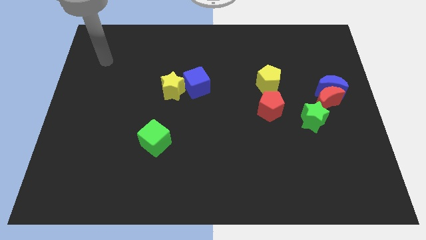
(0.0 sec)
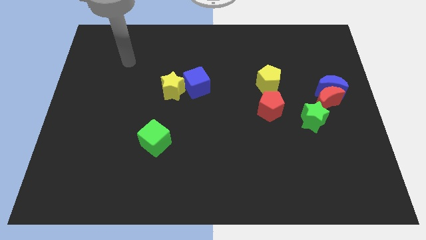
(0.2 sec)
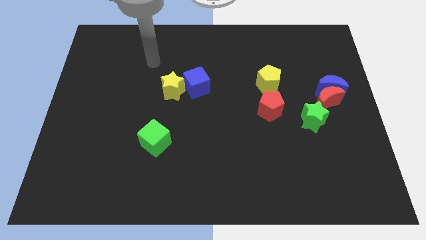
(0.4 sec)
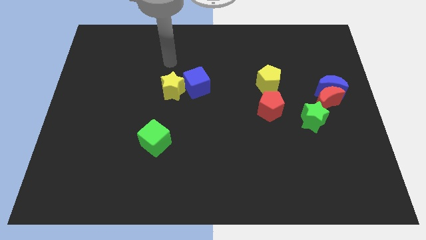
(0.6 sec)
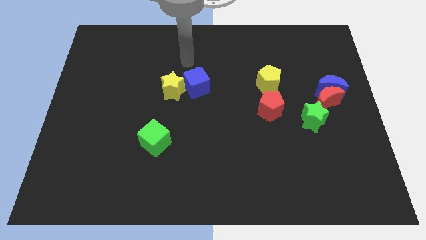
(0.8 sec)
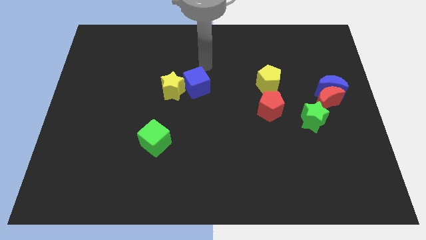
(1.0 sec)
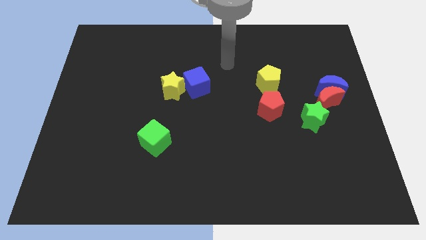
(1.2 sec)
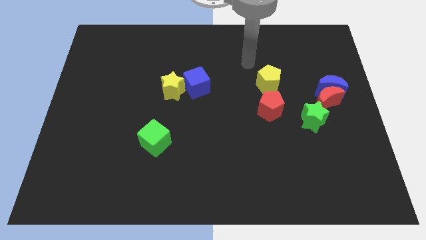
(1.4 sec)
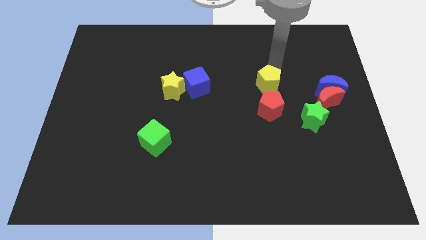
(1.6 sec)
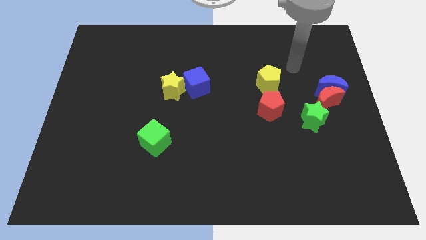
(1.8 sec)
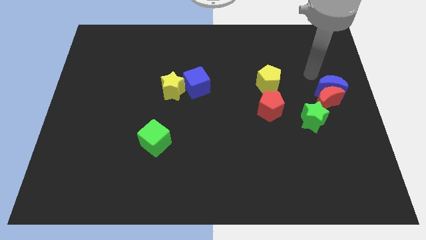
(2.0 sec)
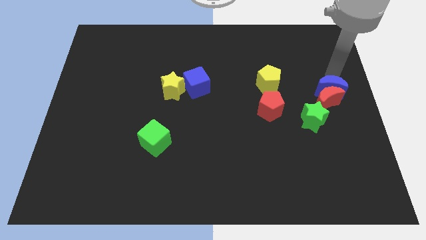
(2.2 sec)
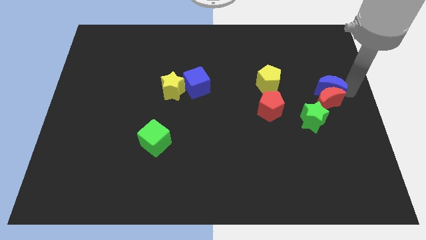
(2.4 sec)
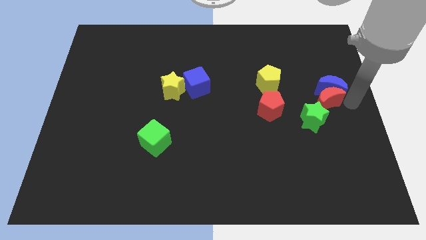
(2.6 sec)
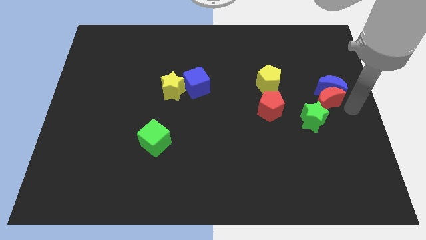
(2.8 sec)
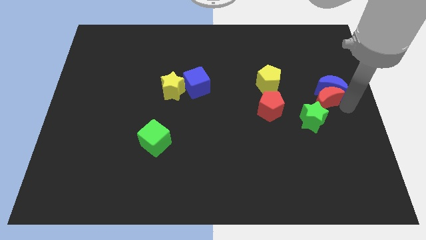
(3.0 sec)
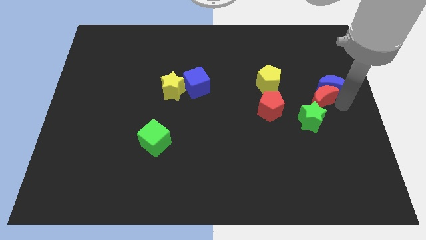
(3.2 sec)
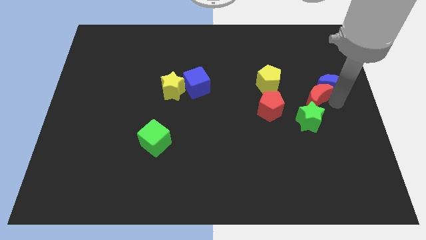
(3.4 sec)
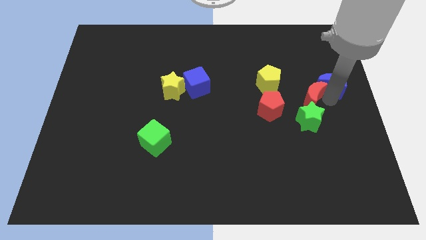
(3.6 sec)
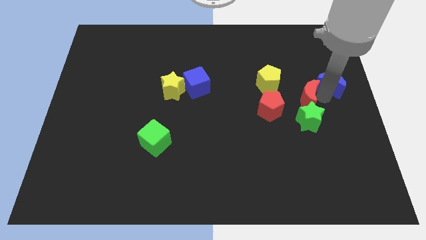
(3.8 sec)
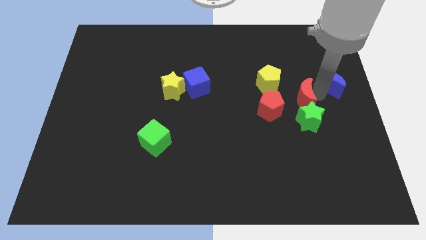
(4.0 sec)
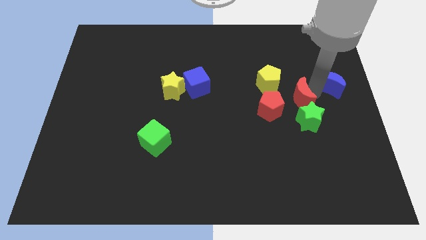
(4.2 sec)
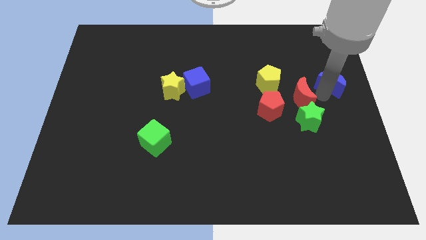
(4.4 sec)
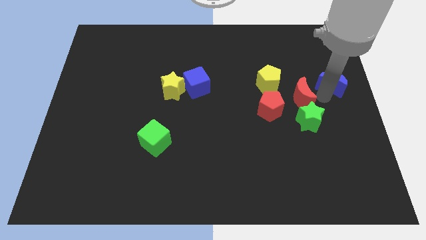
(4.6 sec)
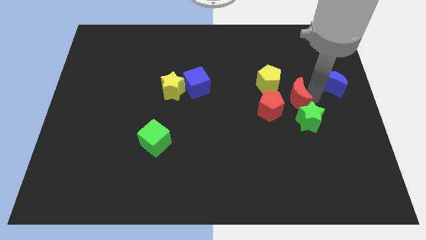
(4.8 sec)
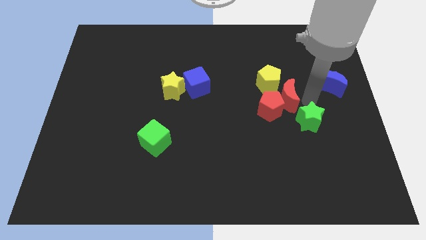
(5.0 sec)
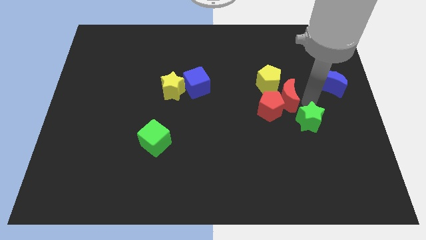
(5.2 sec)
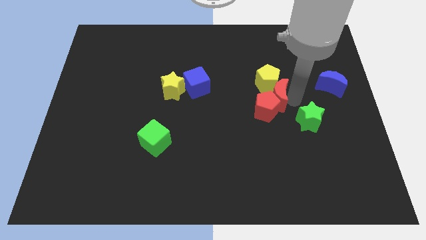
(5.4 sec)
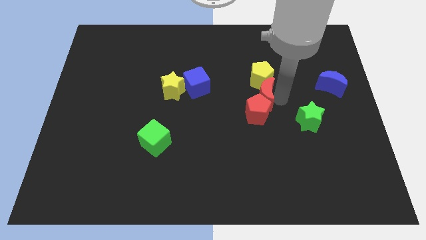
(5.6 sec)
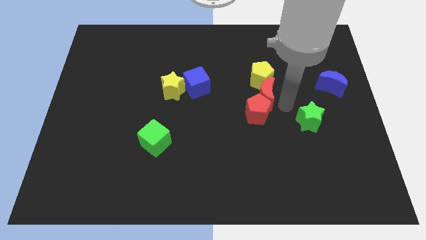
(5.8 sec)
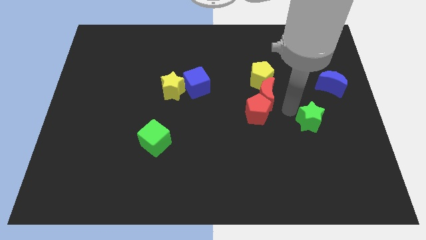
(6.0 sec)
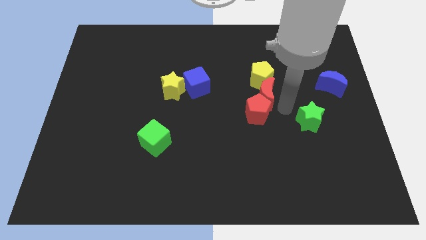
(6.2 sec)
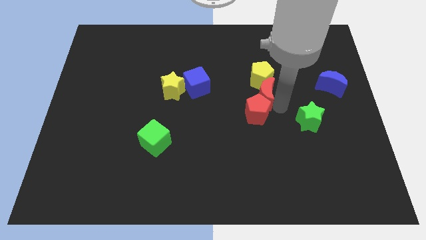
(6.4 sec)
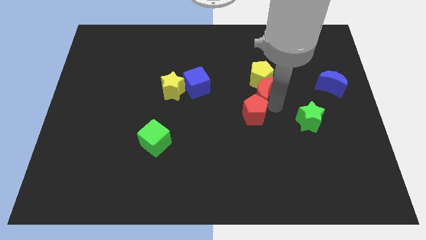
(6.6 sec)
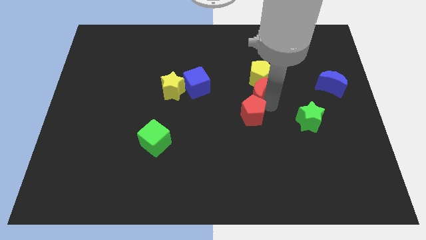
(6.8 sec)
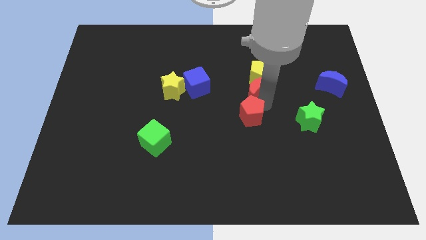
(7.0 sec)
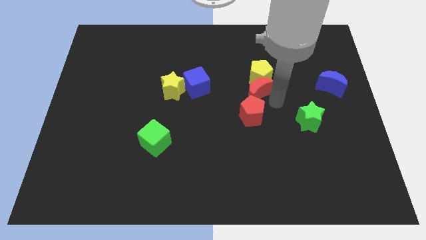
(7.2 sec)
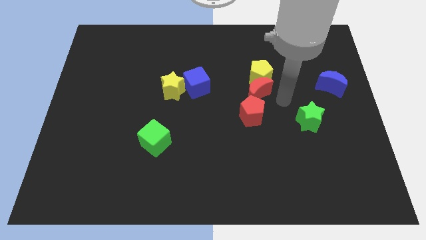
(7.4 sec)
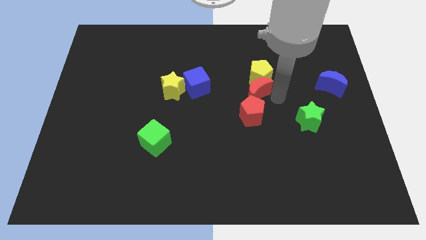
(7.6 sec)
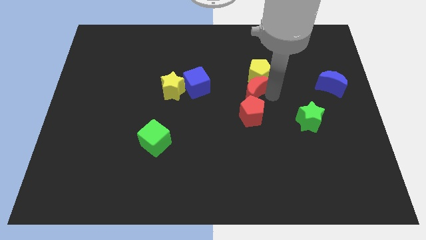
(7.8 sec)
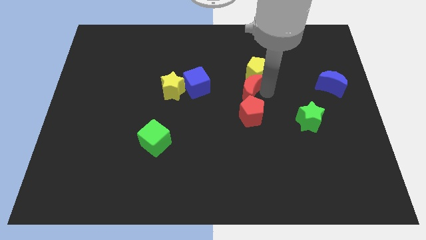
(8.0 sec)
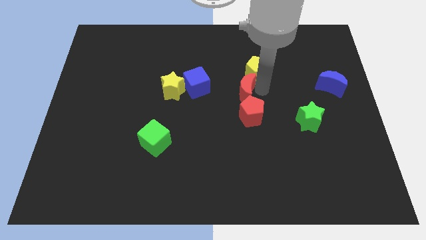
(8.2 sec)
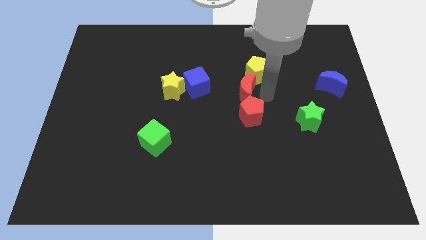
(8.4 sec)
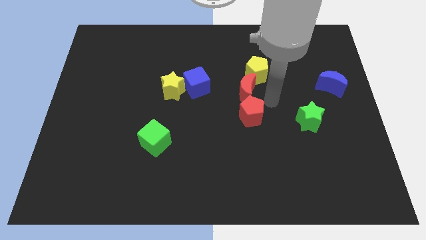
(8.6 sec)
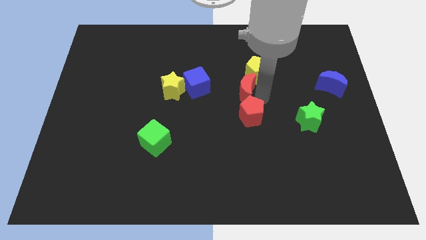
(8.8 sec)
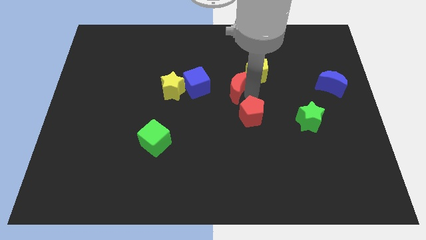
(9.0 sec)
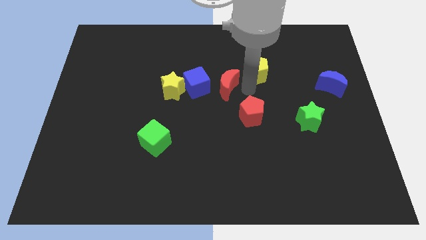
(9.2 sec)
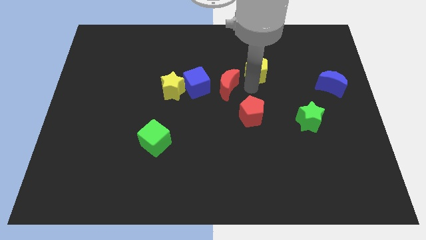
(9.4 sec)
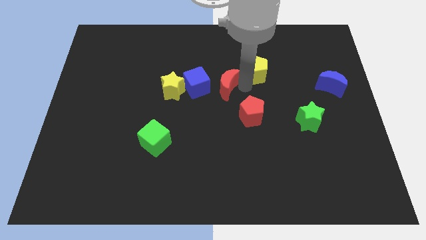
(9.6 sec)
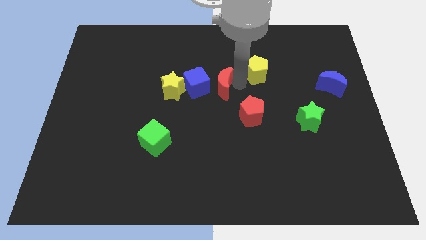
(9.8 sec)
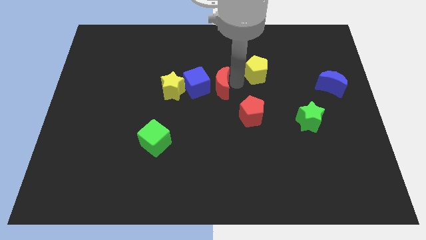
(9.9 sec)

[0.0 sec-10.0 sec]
put the red moon next to the blue cube

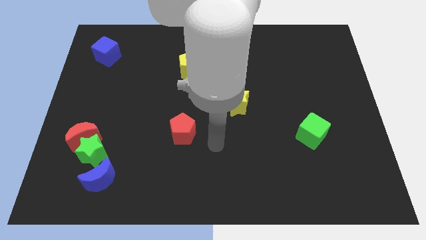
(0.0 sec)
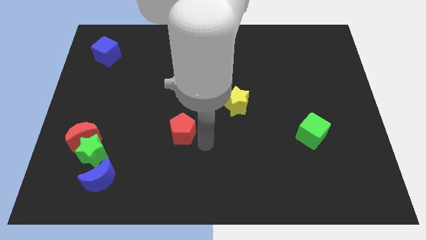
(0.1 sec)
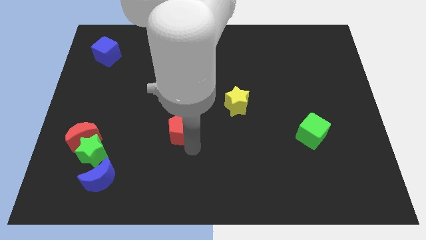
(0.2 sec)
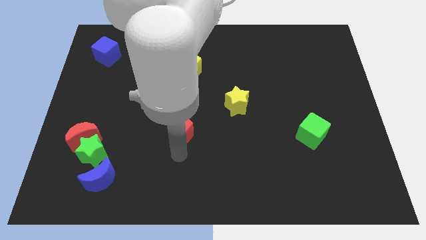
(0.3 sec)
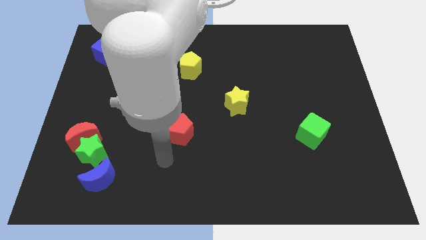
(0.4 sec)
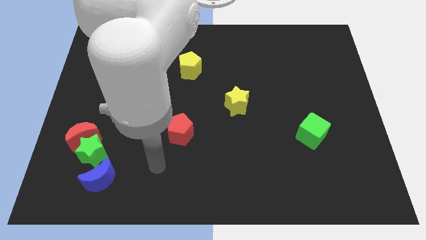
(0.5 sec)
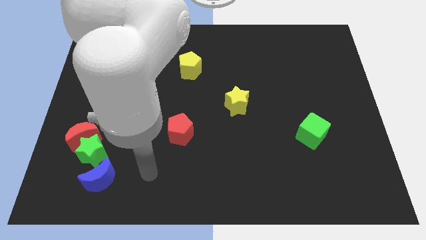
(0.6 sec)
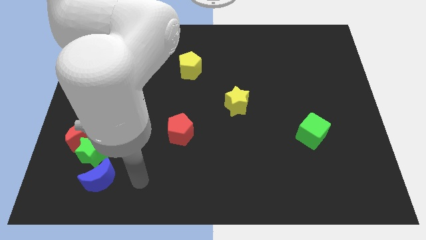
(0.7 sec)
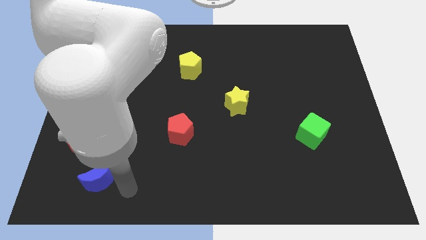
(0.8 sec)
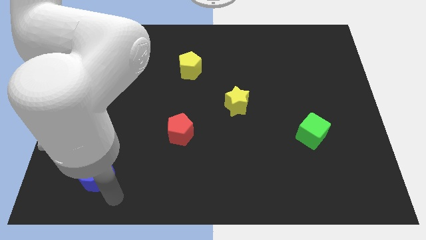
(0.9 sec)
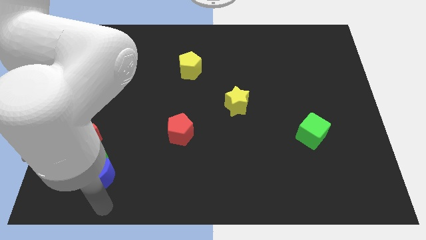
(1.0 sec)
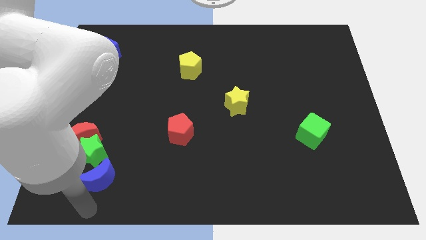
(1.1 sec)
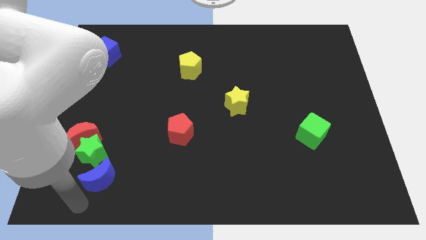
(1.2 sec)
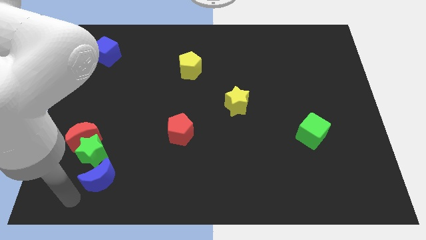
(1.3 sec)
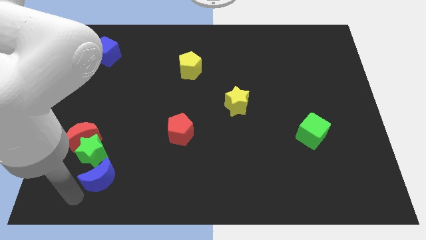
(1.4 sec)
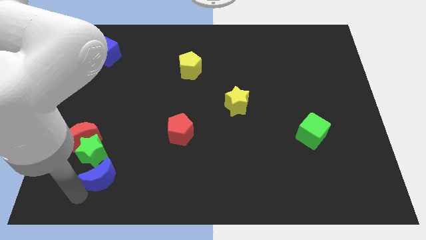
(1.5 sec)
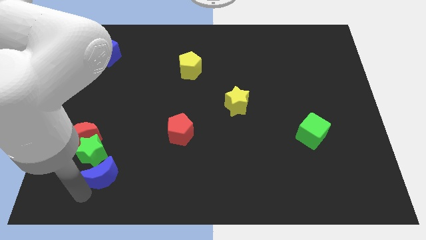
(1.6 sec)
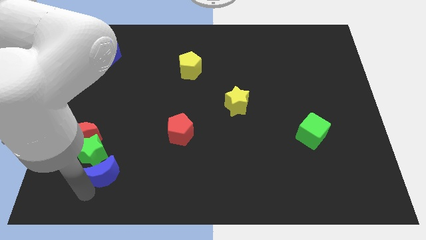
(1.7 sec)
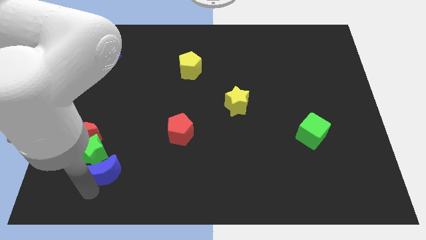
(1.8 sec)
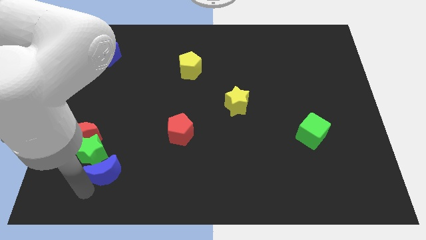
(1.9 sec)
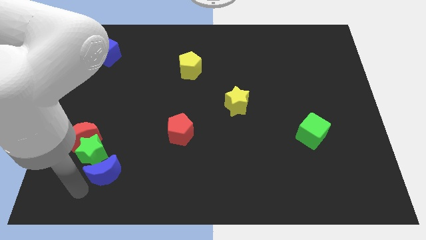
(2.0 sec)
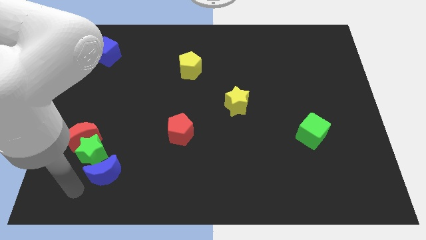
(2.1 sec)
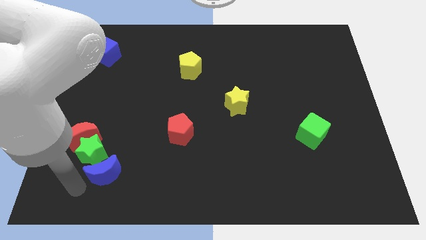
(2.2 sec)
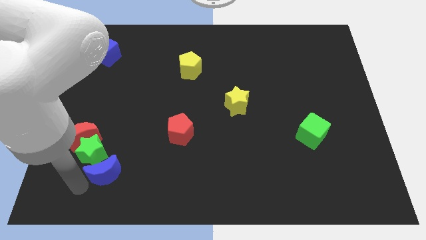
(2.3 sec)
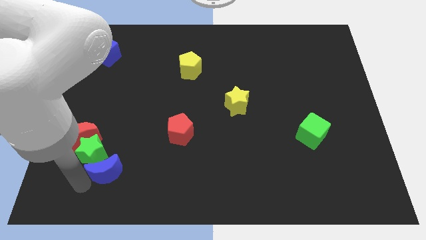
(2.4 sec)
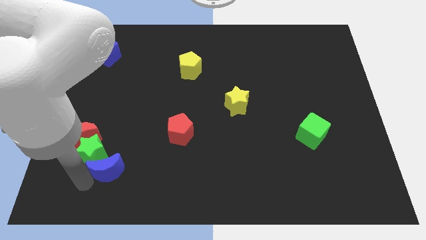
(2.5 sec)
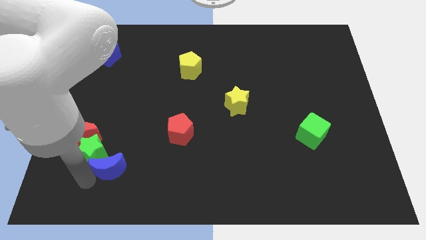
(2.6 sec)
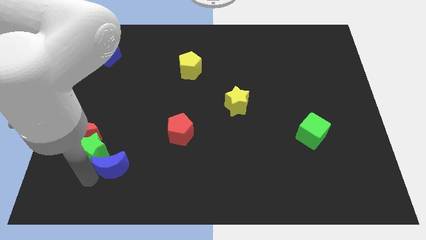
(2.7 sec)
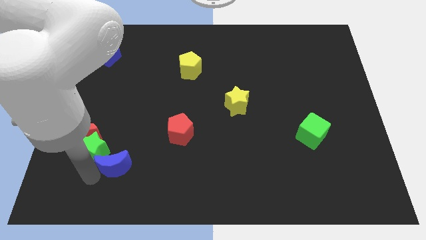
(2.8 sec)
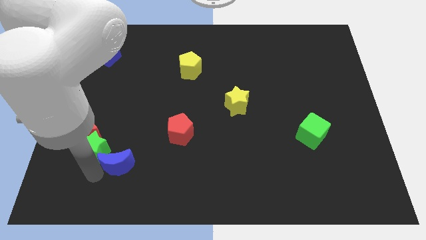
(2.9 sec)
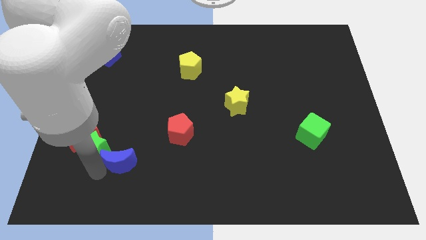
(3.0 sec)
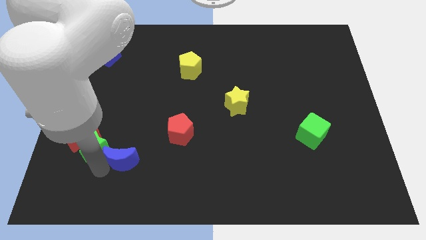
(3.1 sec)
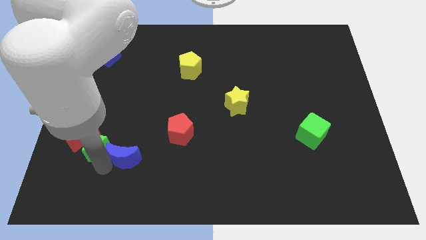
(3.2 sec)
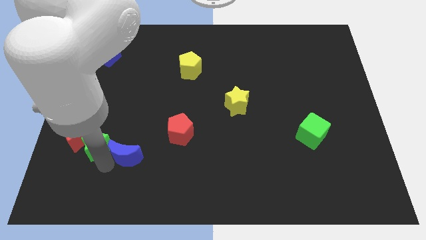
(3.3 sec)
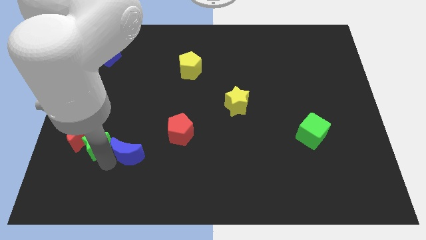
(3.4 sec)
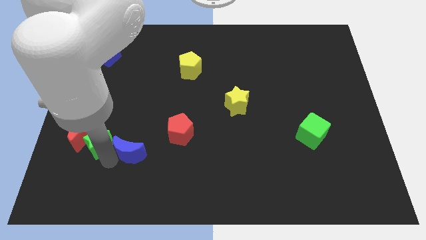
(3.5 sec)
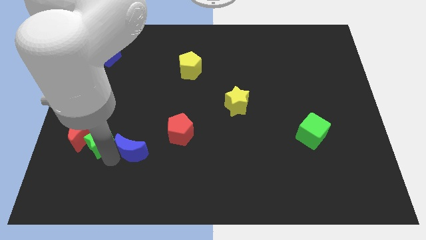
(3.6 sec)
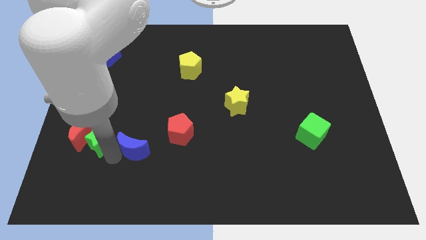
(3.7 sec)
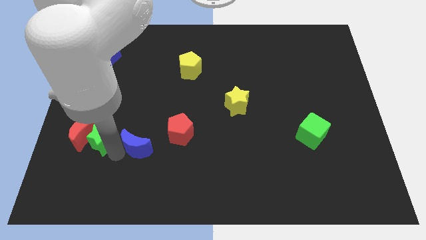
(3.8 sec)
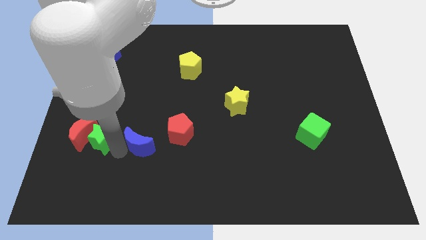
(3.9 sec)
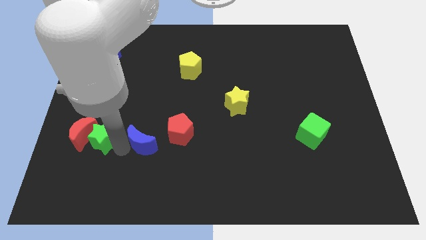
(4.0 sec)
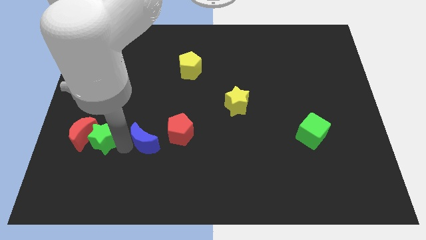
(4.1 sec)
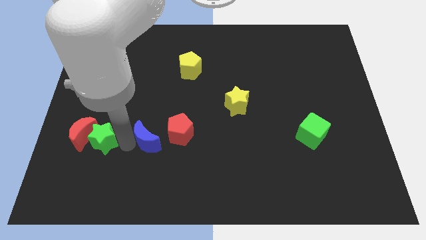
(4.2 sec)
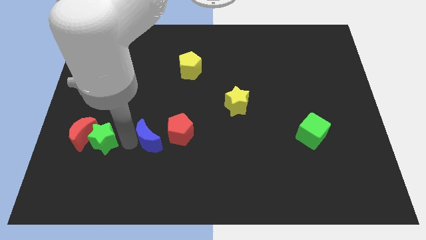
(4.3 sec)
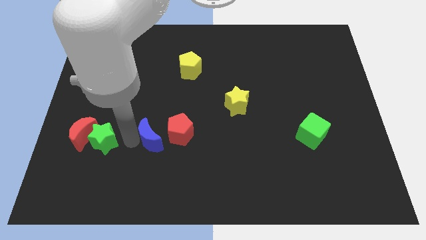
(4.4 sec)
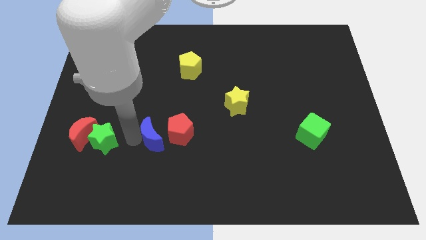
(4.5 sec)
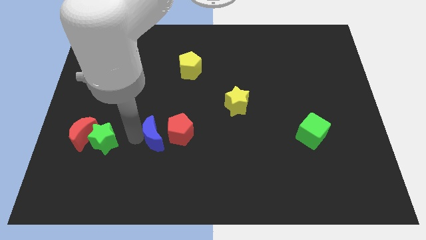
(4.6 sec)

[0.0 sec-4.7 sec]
put the blue moon towards the red pentagon
